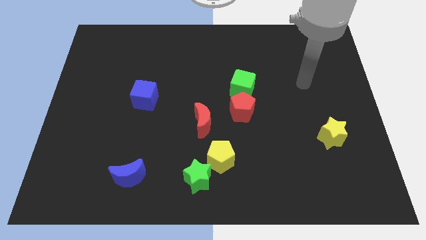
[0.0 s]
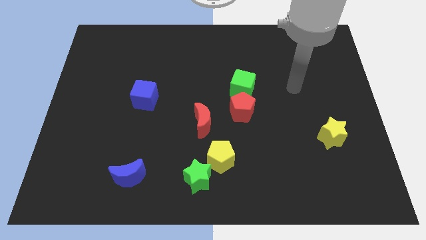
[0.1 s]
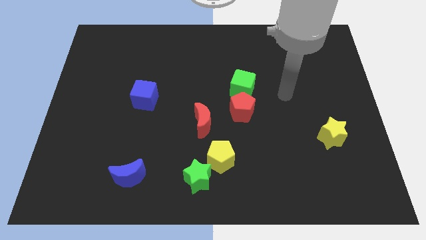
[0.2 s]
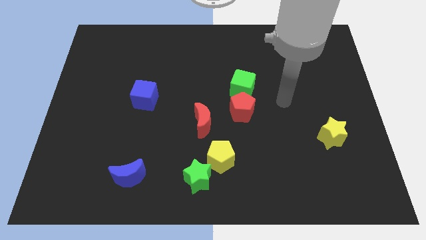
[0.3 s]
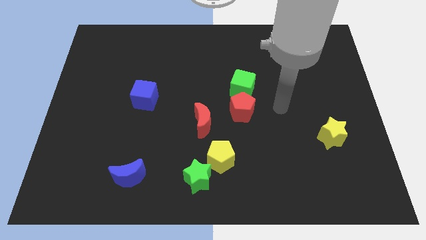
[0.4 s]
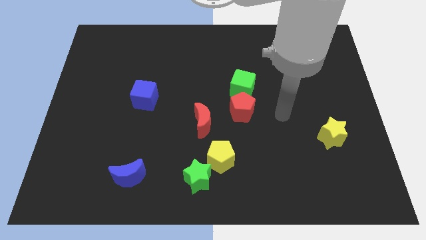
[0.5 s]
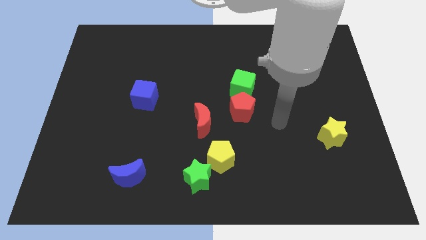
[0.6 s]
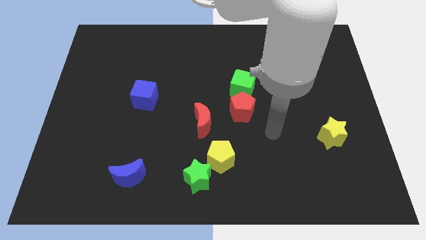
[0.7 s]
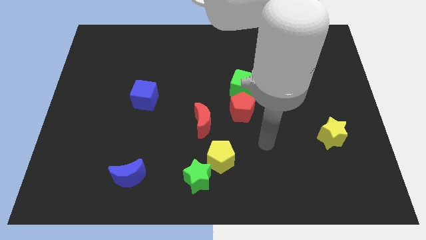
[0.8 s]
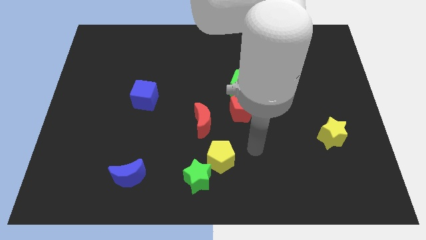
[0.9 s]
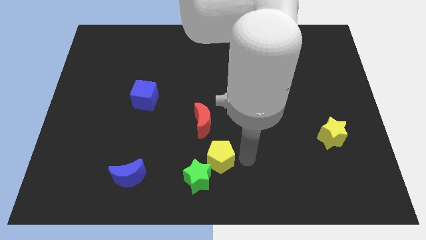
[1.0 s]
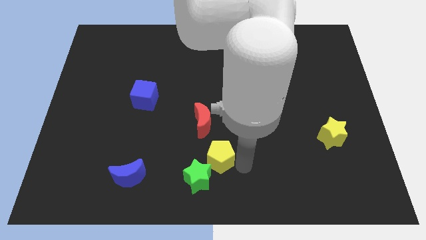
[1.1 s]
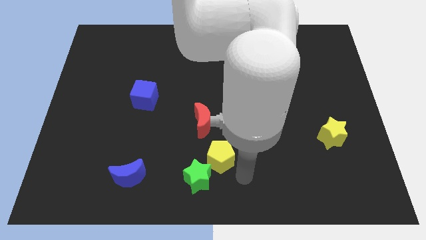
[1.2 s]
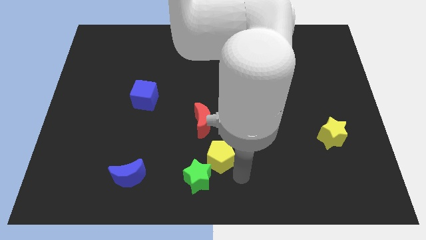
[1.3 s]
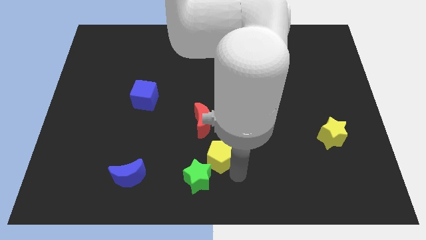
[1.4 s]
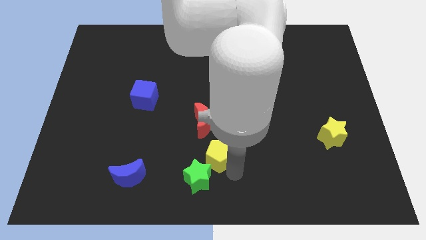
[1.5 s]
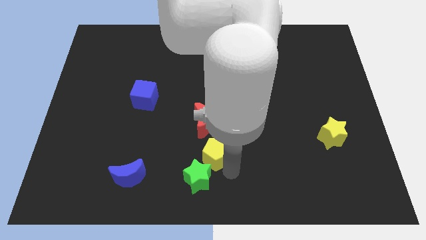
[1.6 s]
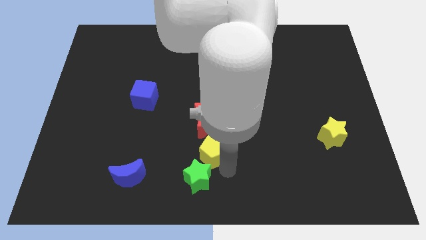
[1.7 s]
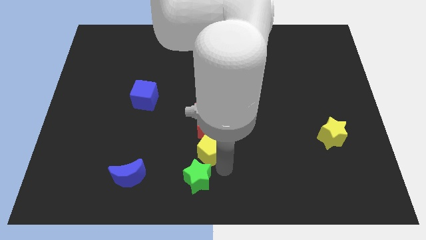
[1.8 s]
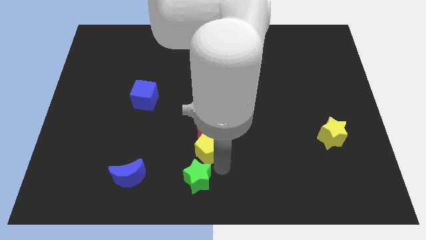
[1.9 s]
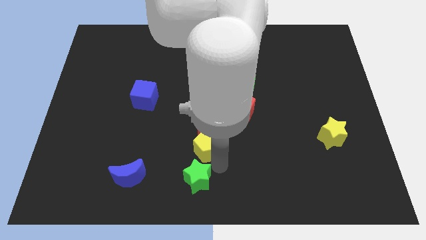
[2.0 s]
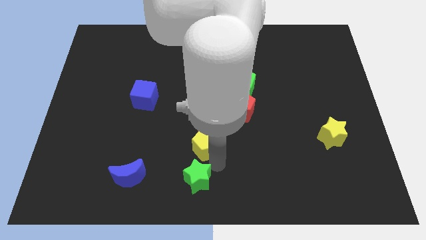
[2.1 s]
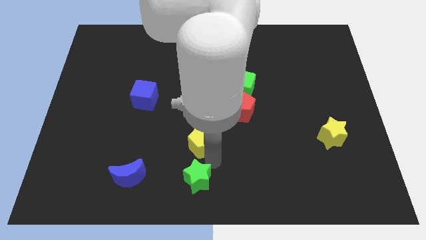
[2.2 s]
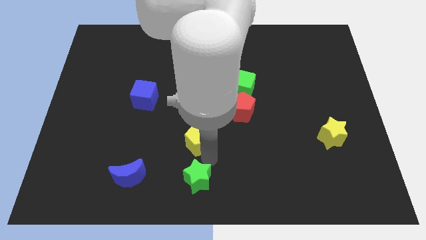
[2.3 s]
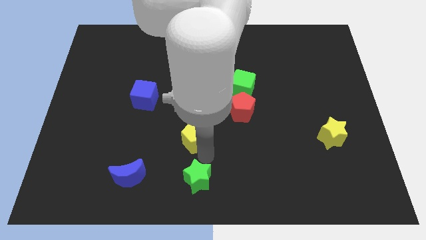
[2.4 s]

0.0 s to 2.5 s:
push the yellow pentagon a little upwards and then to the left

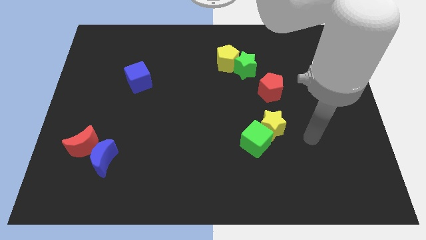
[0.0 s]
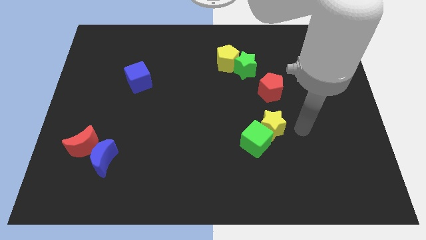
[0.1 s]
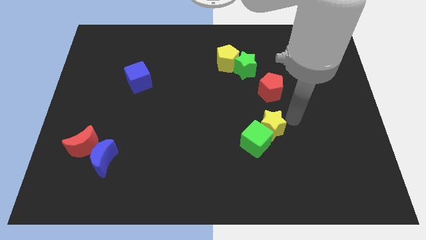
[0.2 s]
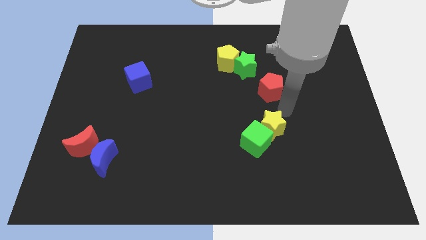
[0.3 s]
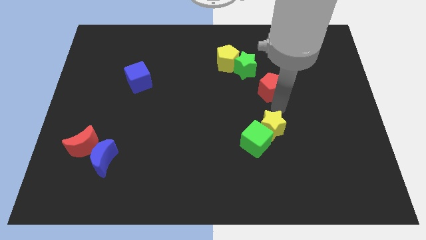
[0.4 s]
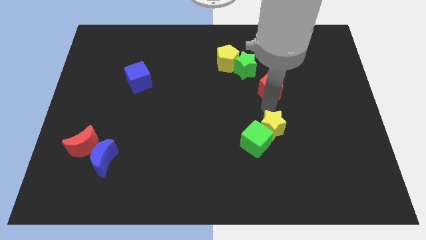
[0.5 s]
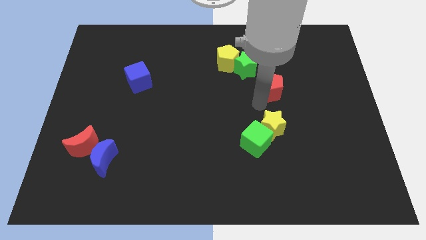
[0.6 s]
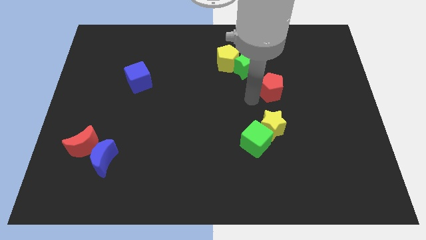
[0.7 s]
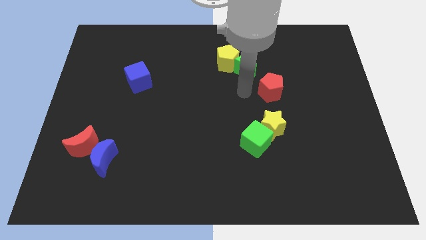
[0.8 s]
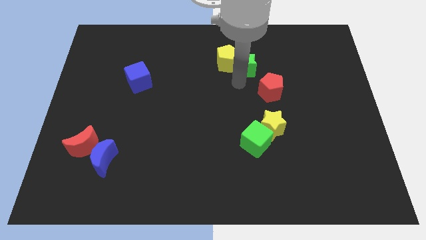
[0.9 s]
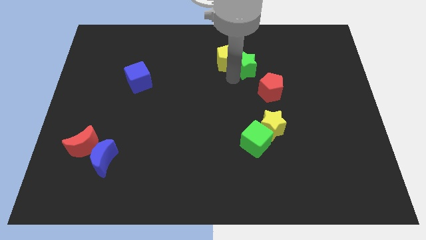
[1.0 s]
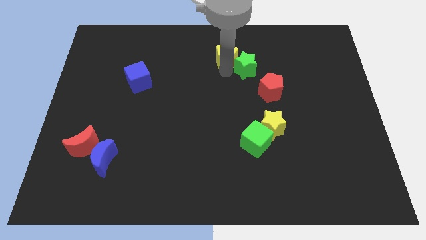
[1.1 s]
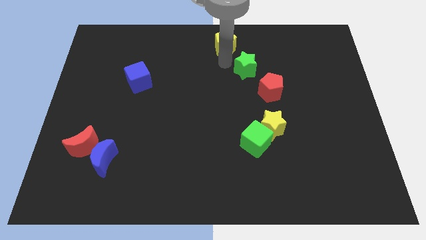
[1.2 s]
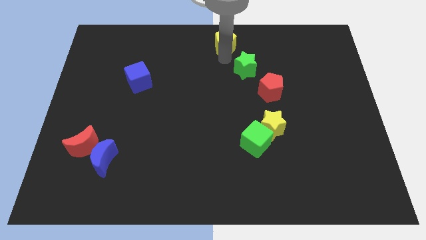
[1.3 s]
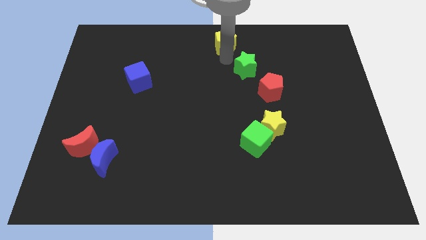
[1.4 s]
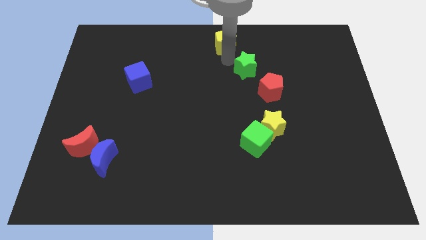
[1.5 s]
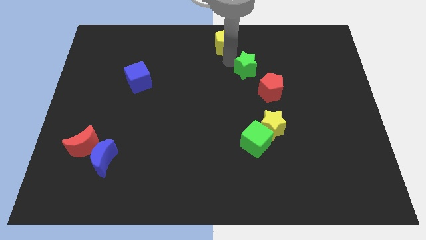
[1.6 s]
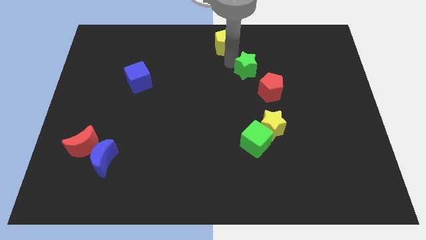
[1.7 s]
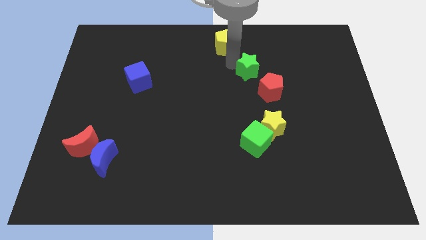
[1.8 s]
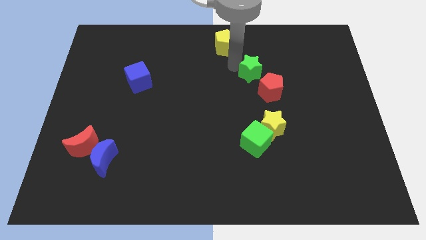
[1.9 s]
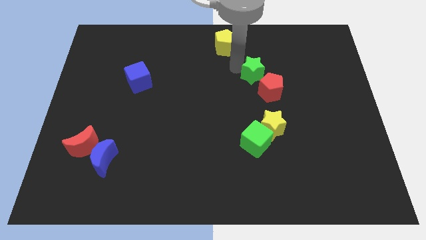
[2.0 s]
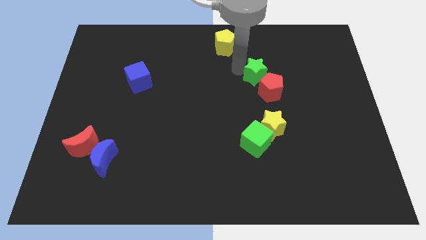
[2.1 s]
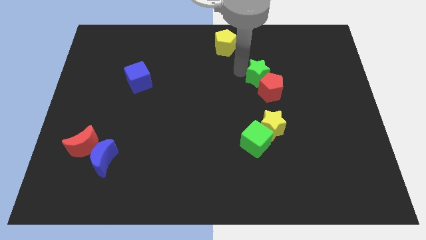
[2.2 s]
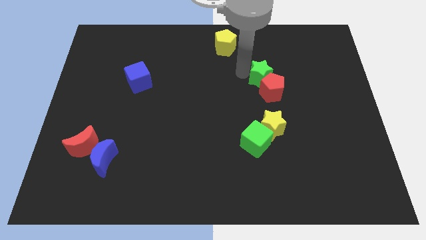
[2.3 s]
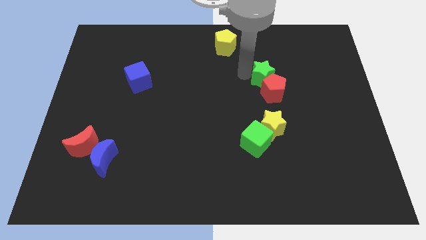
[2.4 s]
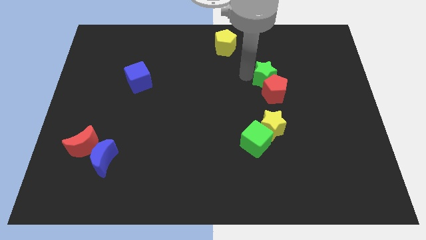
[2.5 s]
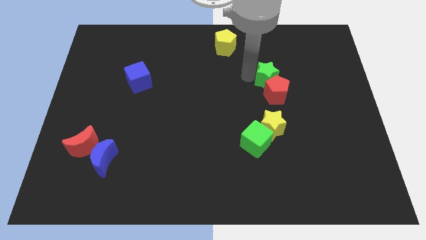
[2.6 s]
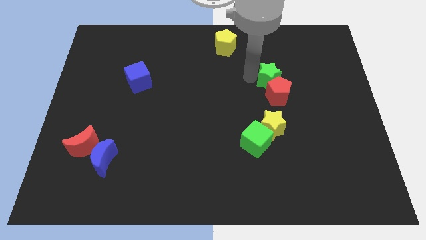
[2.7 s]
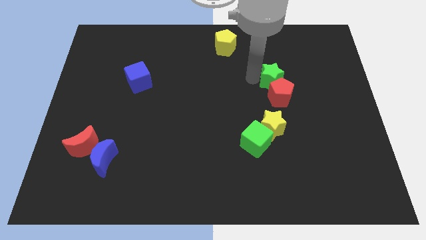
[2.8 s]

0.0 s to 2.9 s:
slightly push the green star downwards and then right

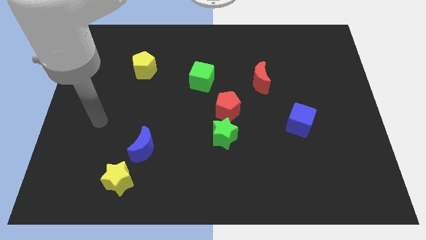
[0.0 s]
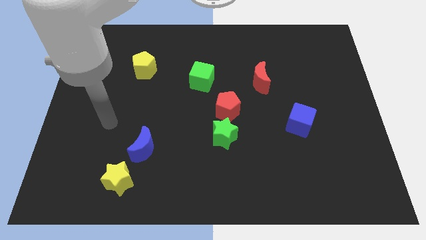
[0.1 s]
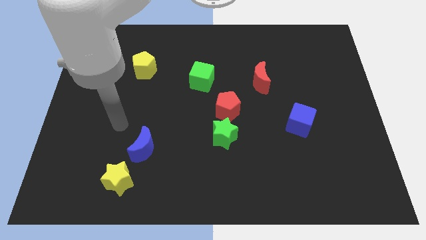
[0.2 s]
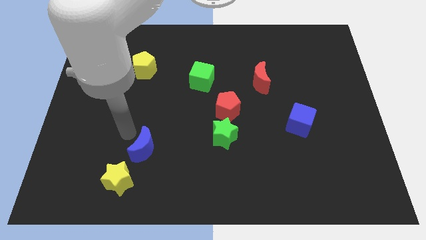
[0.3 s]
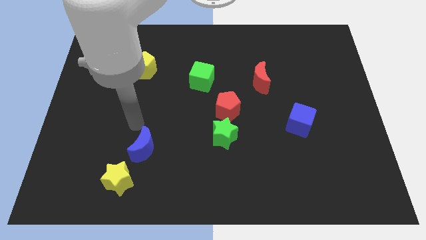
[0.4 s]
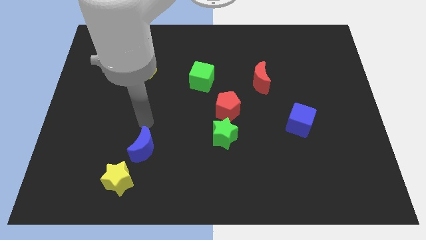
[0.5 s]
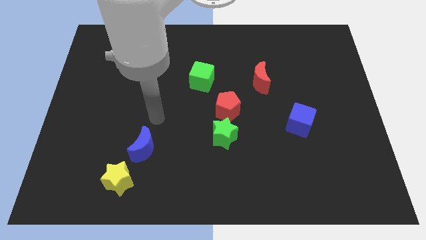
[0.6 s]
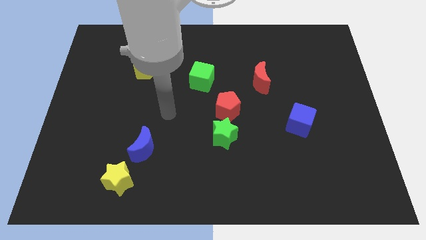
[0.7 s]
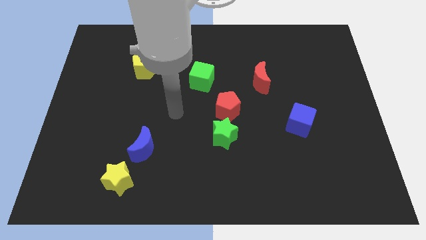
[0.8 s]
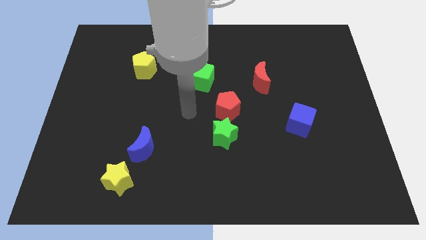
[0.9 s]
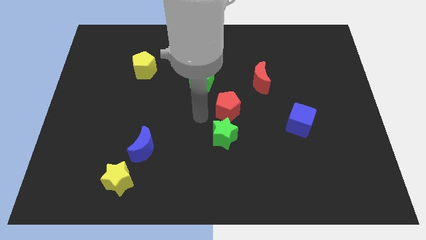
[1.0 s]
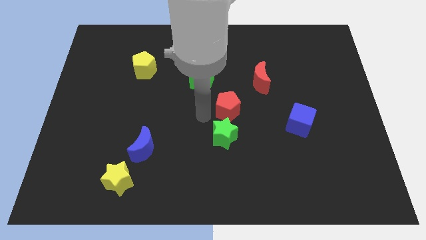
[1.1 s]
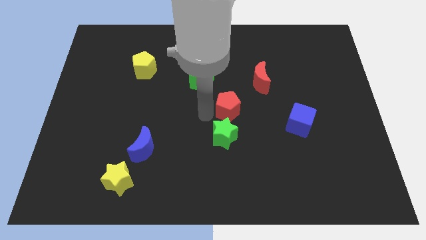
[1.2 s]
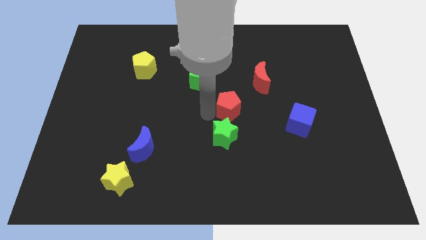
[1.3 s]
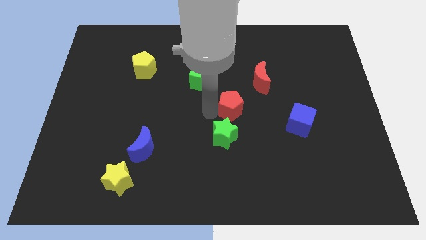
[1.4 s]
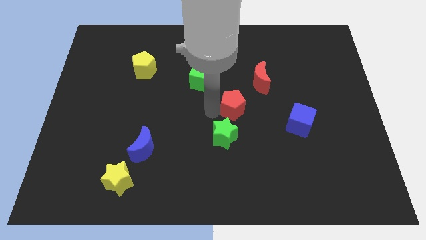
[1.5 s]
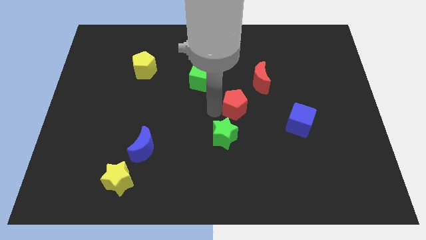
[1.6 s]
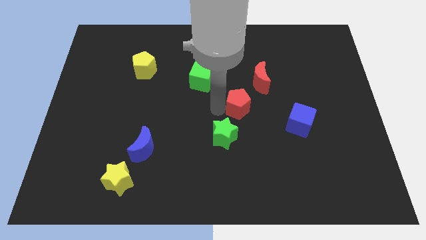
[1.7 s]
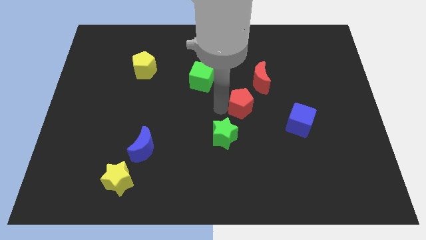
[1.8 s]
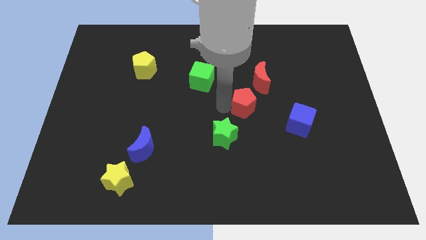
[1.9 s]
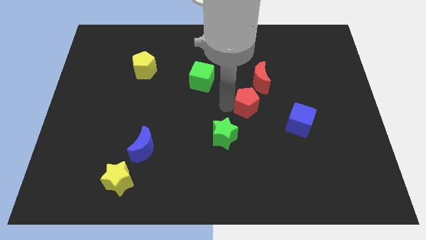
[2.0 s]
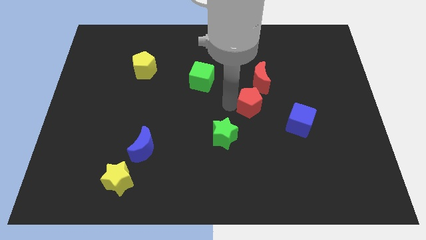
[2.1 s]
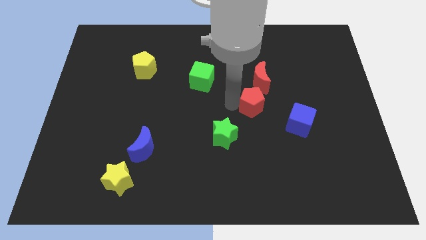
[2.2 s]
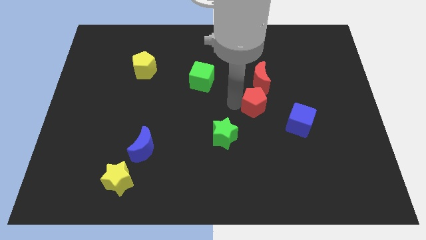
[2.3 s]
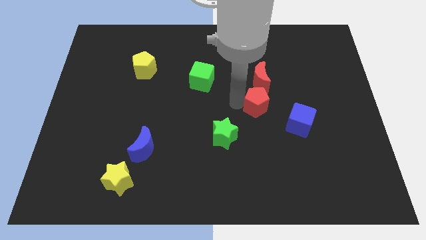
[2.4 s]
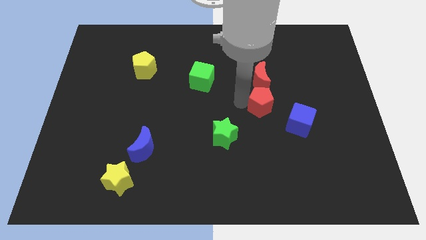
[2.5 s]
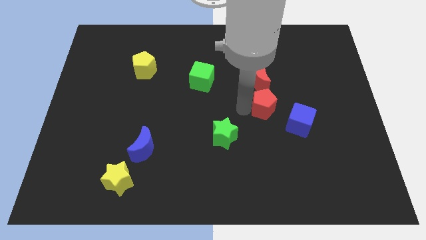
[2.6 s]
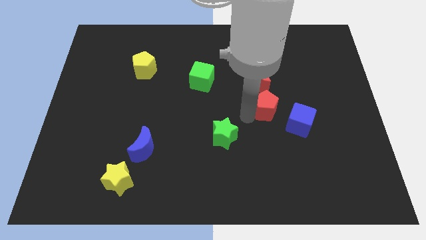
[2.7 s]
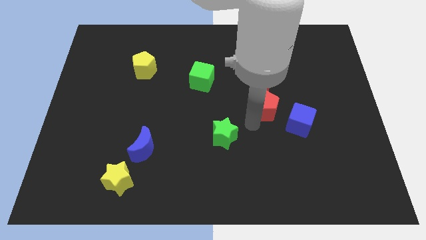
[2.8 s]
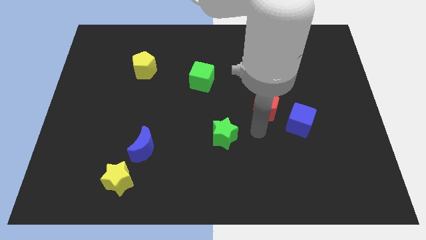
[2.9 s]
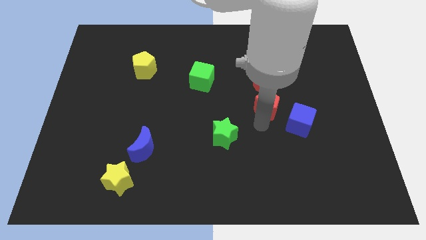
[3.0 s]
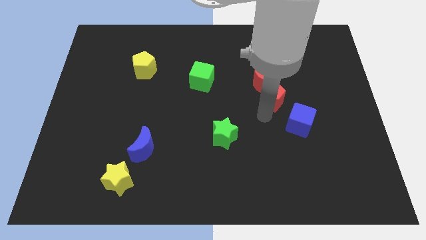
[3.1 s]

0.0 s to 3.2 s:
slide the red pentagon up and to the right a bit
